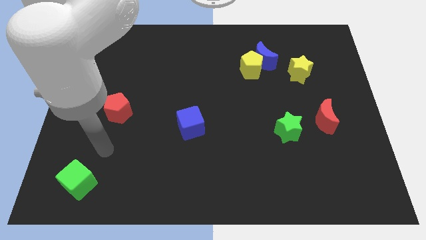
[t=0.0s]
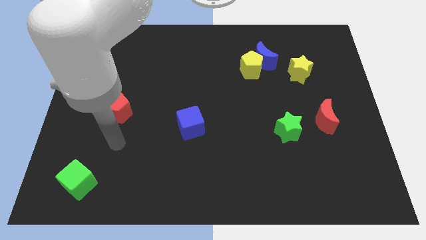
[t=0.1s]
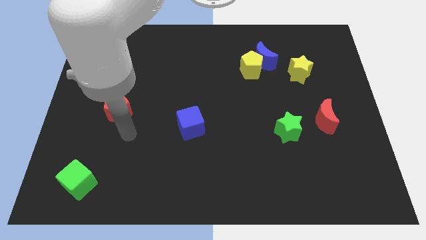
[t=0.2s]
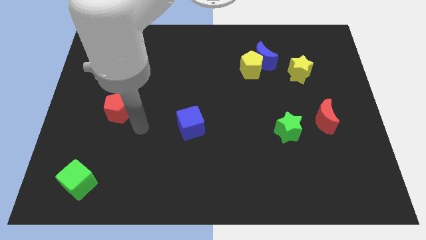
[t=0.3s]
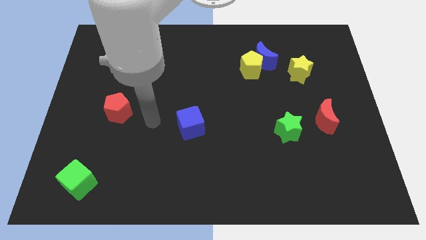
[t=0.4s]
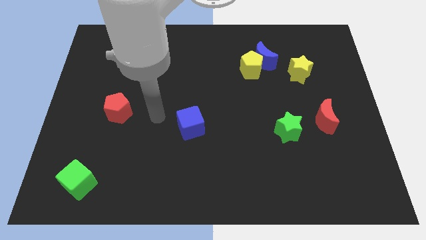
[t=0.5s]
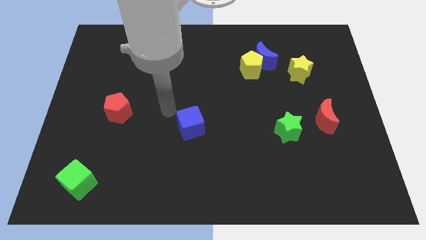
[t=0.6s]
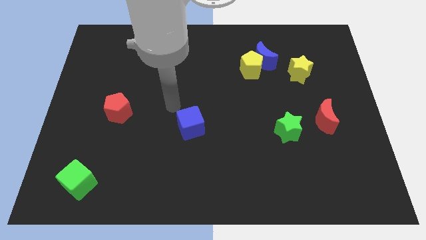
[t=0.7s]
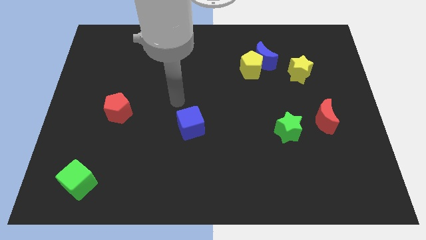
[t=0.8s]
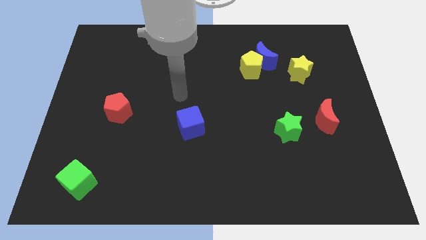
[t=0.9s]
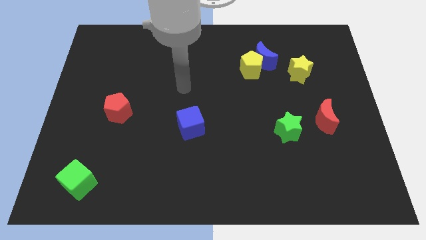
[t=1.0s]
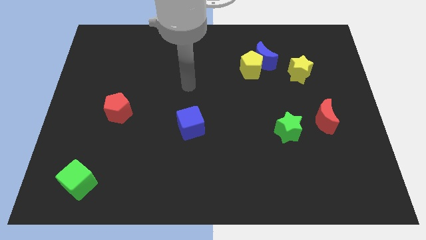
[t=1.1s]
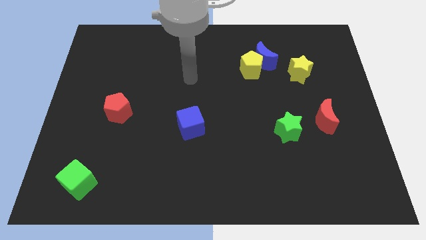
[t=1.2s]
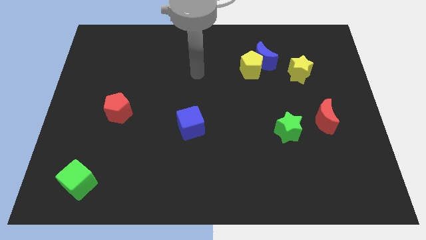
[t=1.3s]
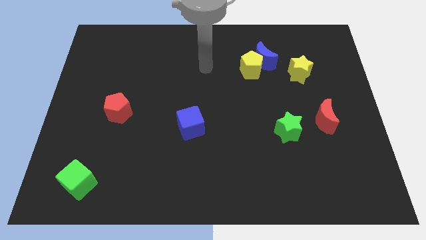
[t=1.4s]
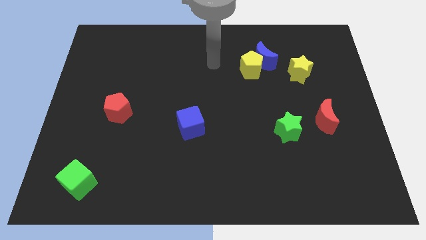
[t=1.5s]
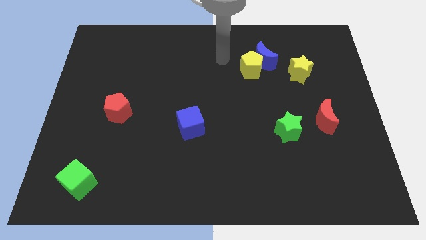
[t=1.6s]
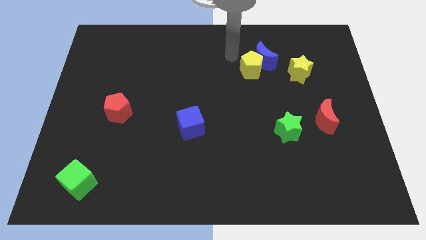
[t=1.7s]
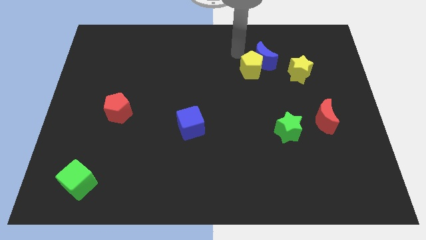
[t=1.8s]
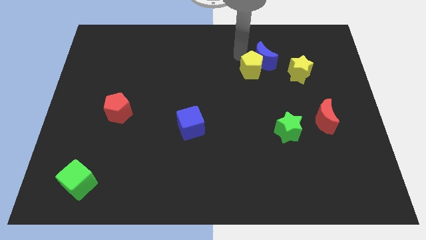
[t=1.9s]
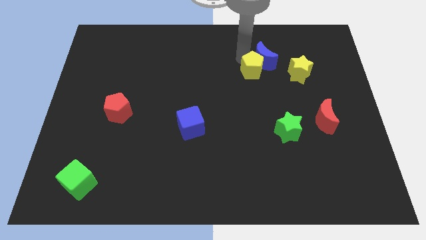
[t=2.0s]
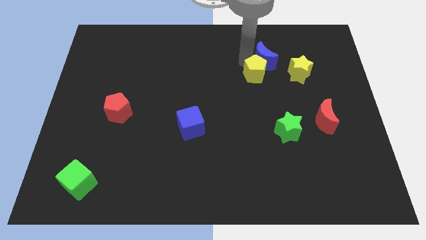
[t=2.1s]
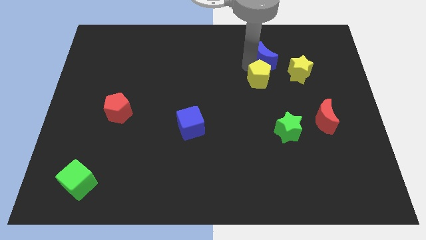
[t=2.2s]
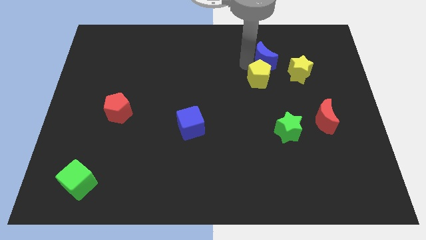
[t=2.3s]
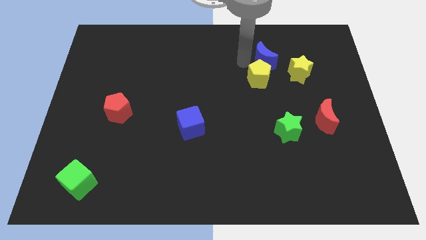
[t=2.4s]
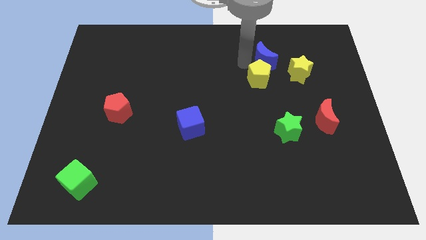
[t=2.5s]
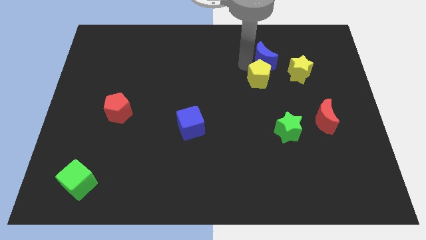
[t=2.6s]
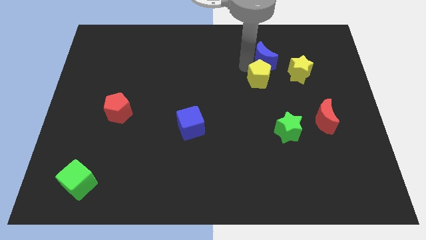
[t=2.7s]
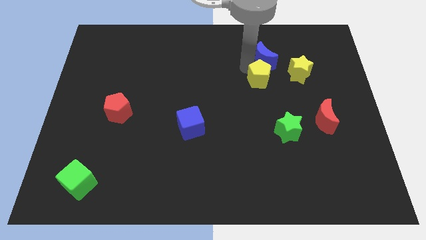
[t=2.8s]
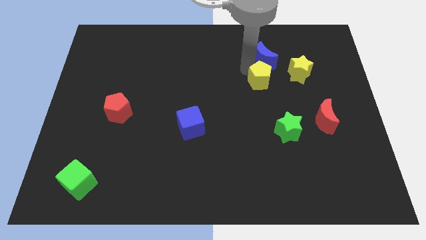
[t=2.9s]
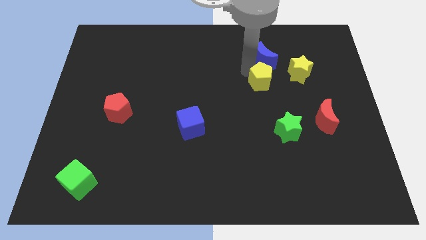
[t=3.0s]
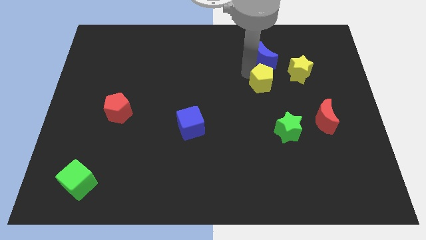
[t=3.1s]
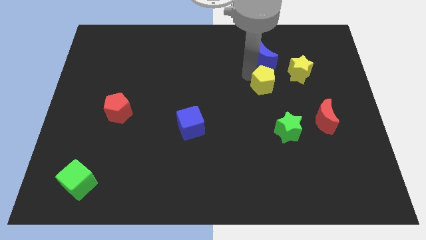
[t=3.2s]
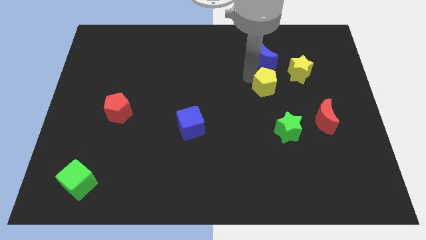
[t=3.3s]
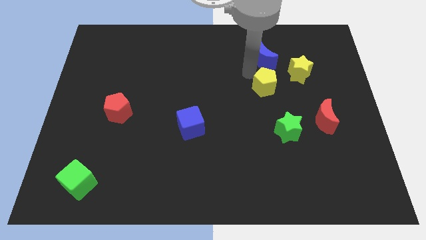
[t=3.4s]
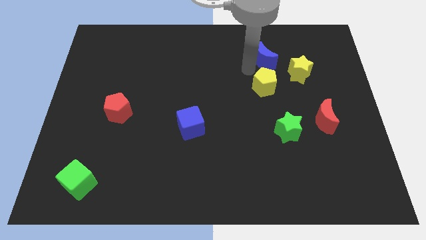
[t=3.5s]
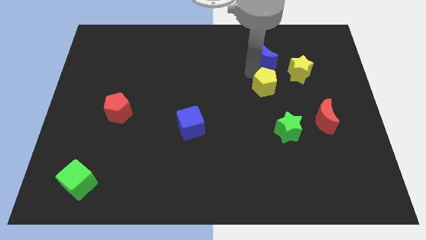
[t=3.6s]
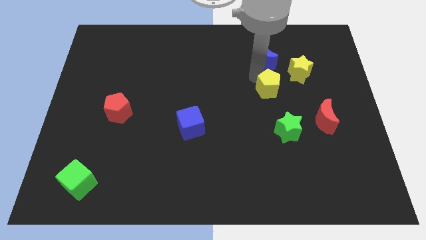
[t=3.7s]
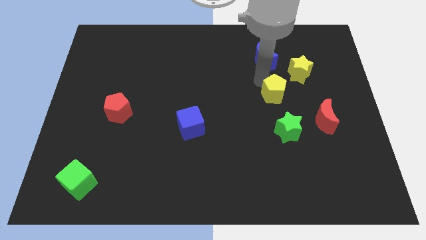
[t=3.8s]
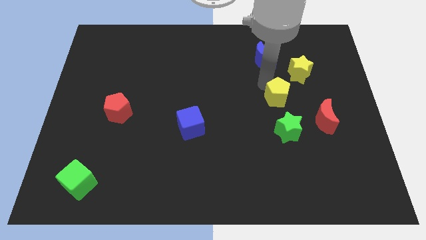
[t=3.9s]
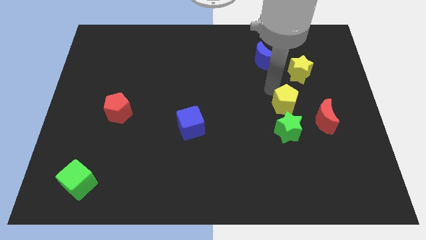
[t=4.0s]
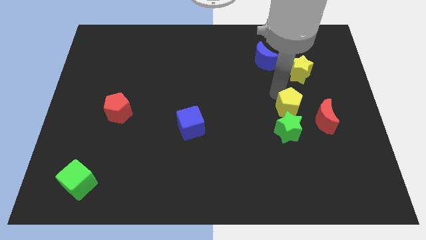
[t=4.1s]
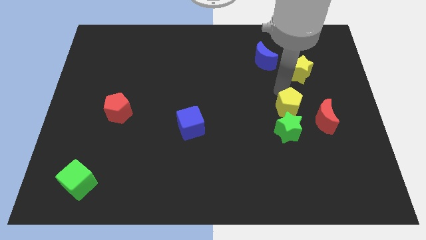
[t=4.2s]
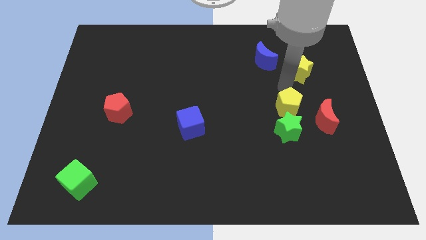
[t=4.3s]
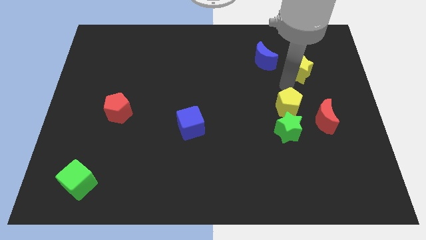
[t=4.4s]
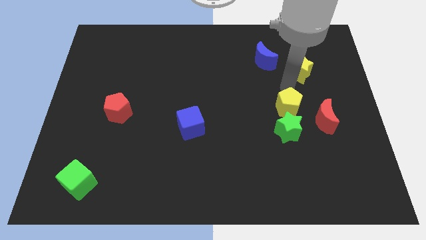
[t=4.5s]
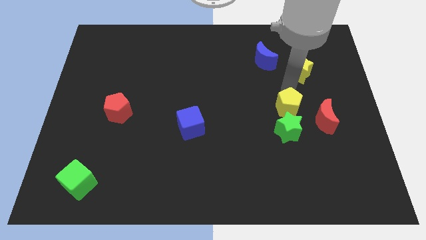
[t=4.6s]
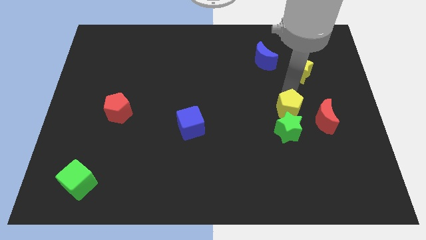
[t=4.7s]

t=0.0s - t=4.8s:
move the yellow pentagon to the green star

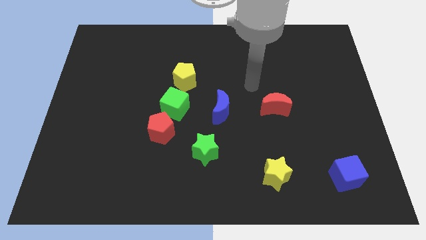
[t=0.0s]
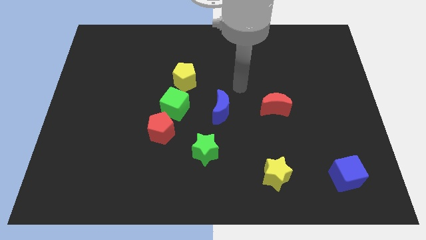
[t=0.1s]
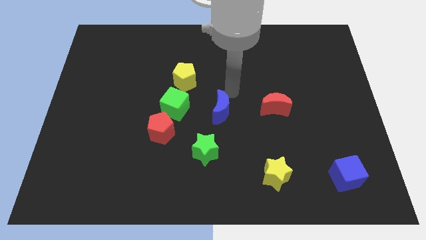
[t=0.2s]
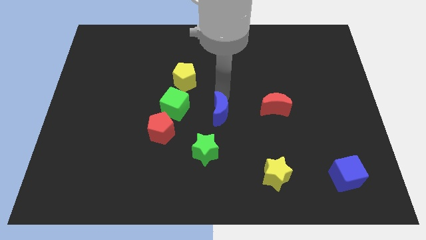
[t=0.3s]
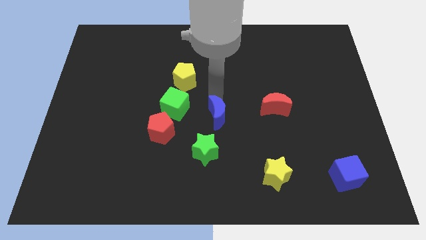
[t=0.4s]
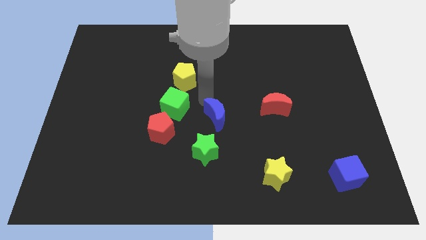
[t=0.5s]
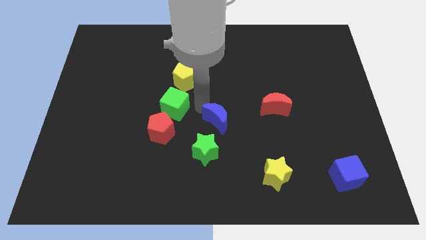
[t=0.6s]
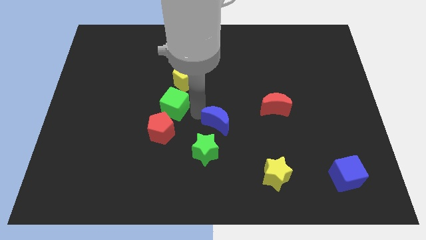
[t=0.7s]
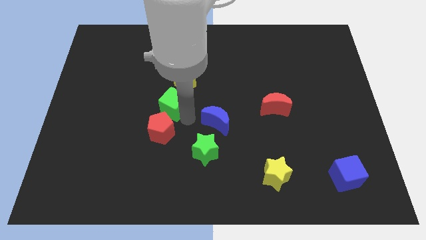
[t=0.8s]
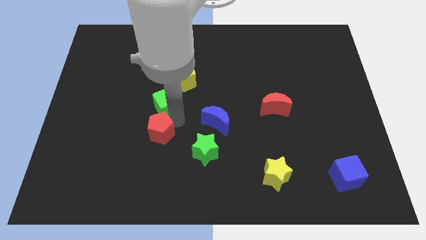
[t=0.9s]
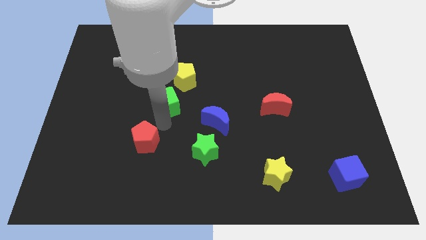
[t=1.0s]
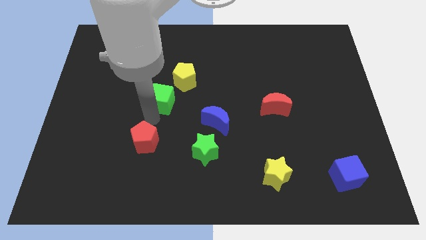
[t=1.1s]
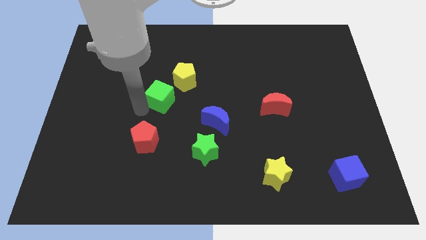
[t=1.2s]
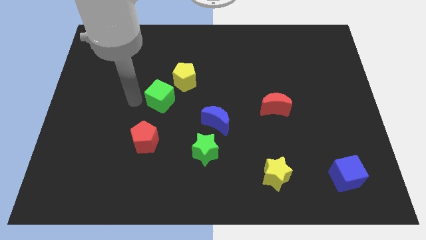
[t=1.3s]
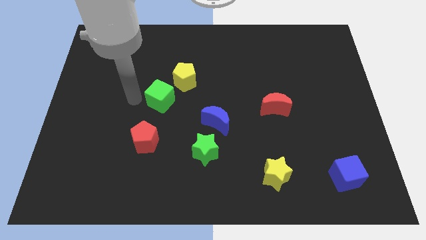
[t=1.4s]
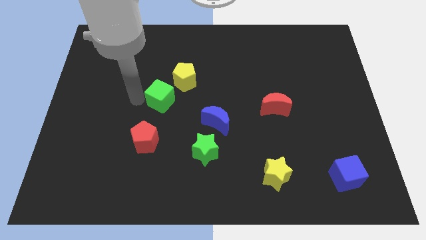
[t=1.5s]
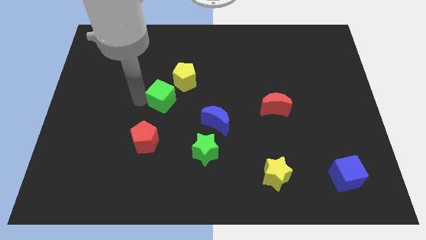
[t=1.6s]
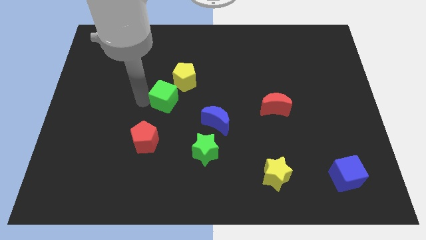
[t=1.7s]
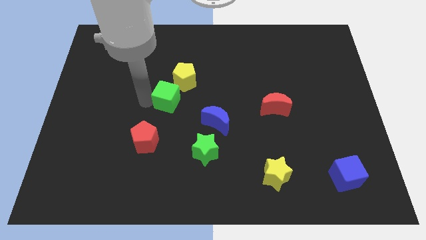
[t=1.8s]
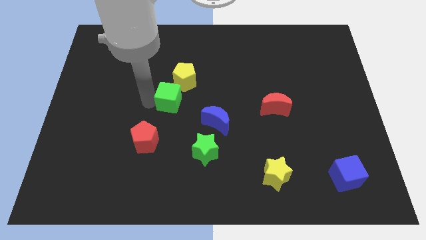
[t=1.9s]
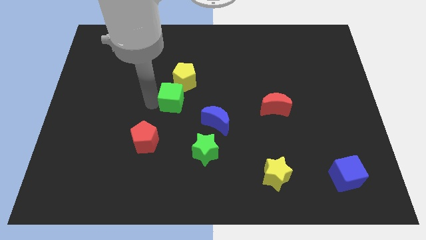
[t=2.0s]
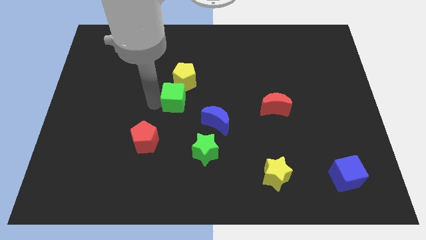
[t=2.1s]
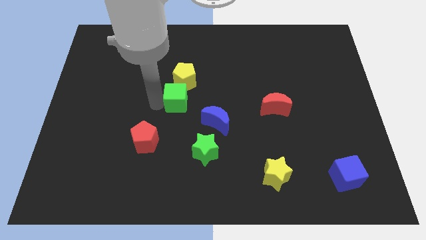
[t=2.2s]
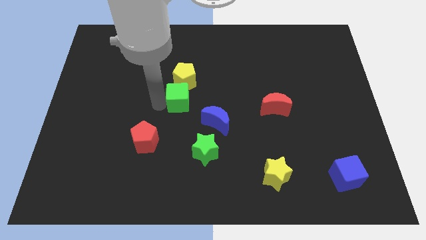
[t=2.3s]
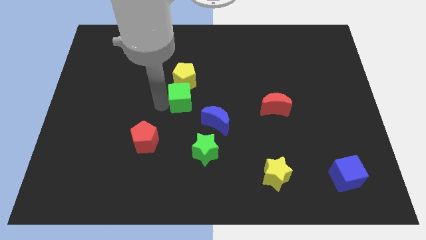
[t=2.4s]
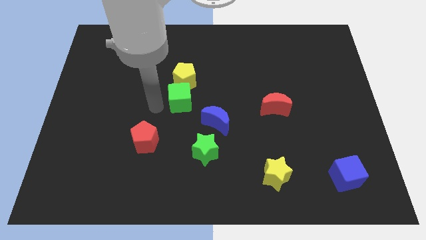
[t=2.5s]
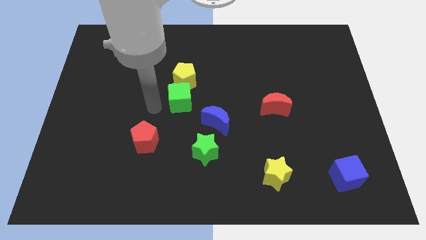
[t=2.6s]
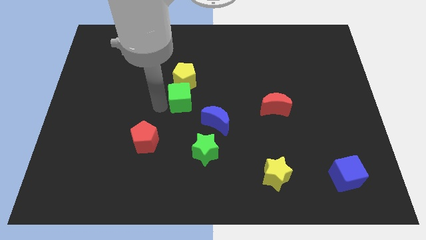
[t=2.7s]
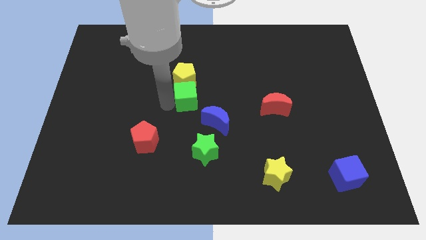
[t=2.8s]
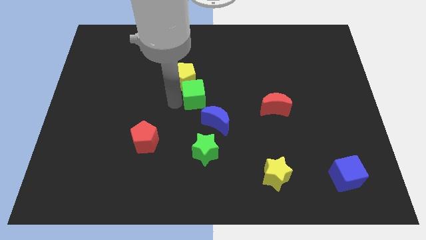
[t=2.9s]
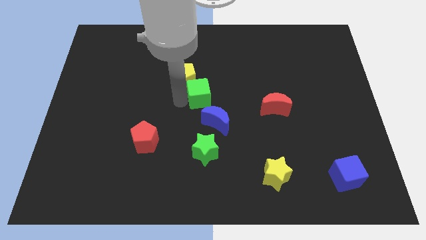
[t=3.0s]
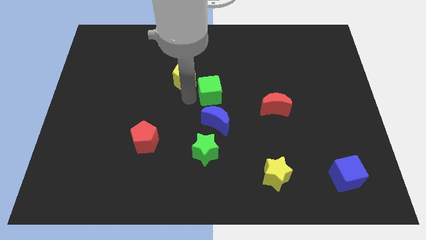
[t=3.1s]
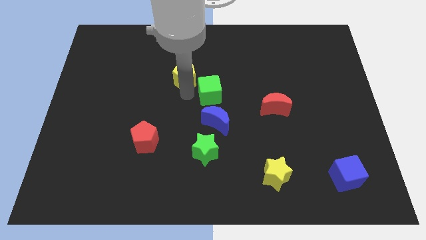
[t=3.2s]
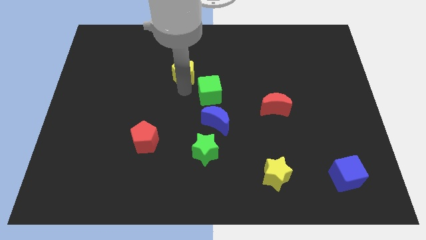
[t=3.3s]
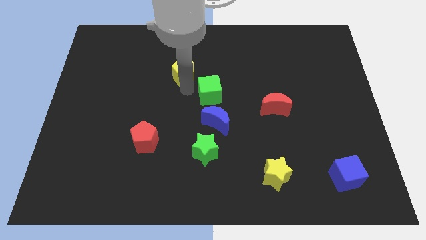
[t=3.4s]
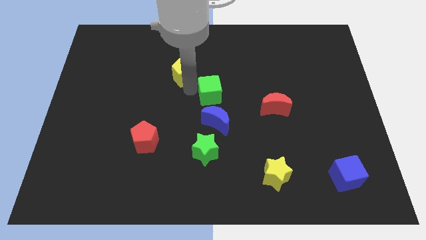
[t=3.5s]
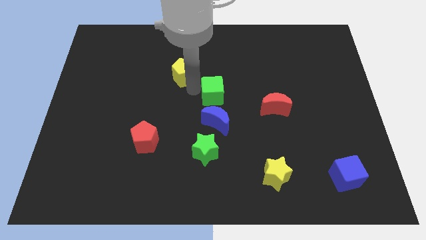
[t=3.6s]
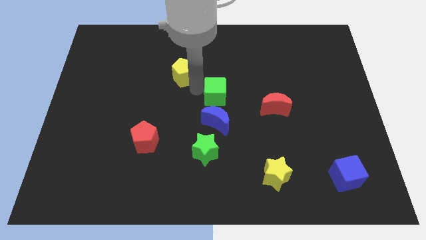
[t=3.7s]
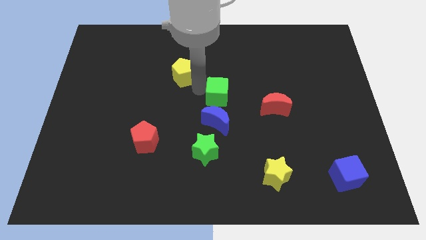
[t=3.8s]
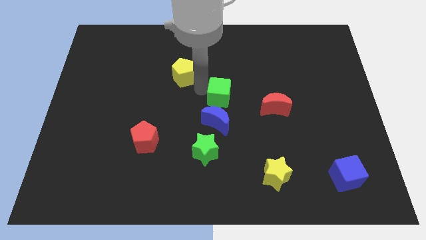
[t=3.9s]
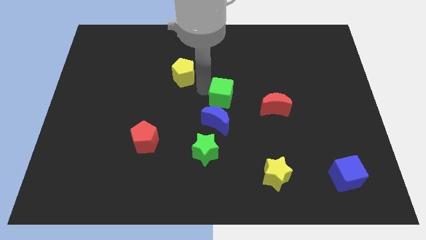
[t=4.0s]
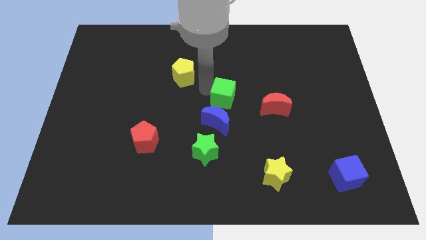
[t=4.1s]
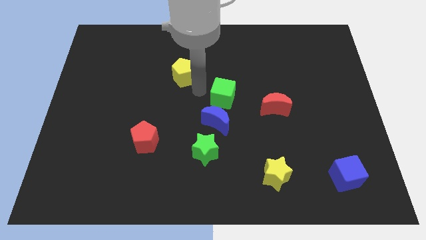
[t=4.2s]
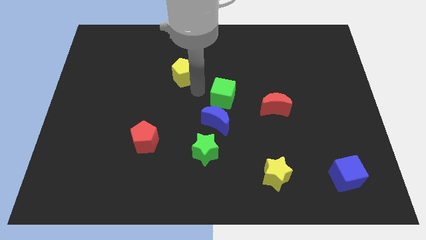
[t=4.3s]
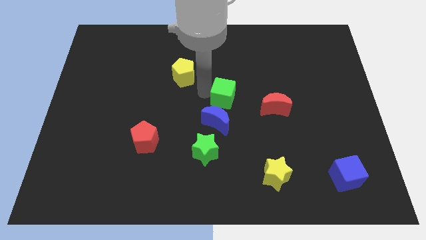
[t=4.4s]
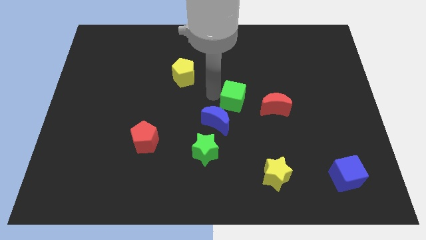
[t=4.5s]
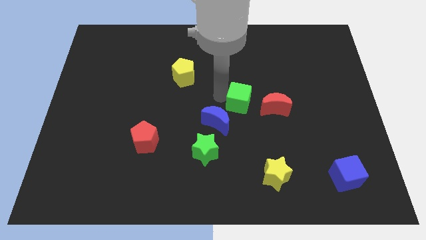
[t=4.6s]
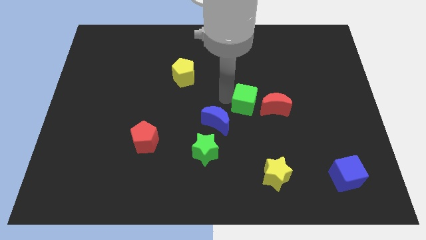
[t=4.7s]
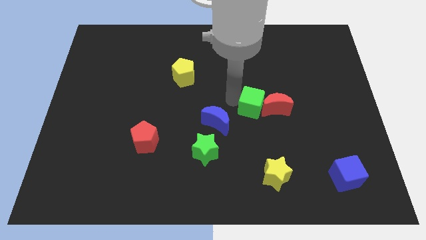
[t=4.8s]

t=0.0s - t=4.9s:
put the green cube towards the red moon
